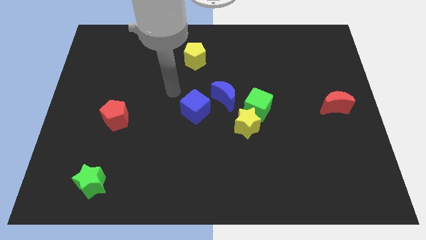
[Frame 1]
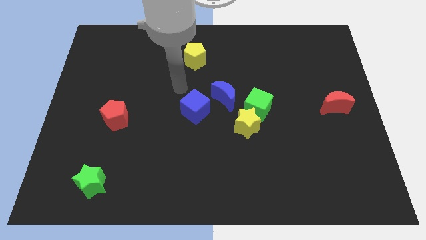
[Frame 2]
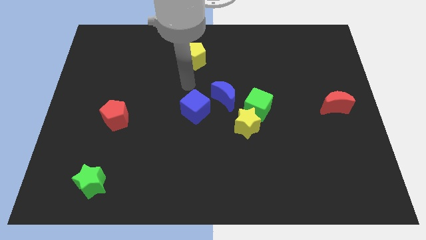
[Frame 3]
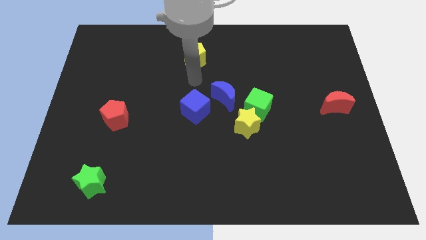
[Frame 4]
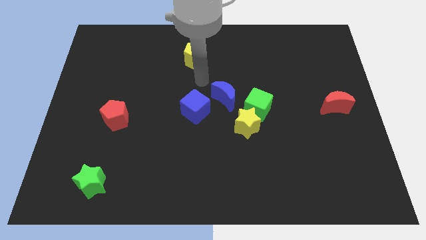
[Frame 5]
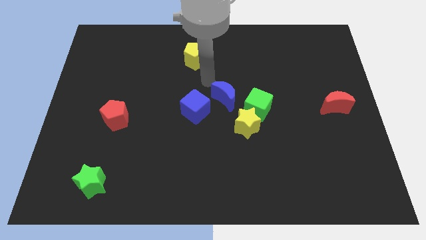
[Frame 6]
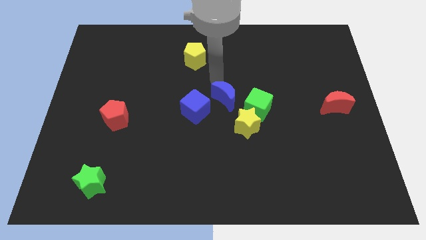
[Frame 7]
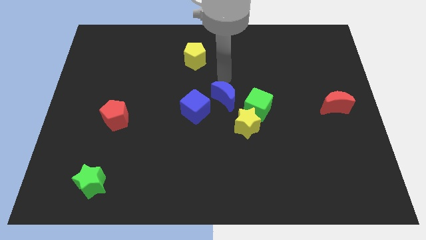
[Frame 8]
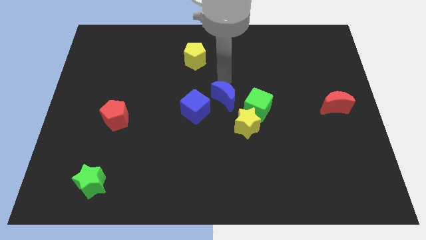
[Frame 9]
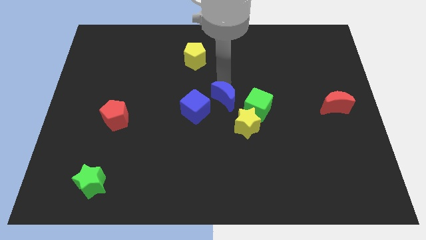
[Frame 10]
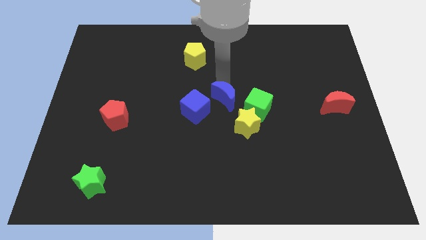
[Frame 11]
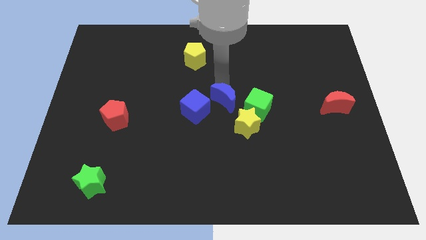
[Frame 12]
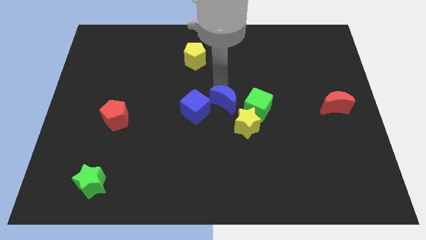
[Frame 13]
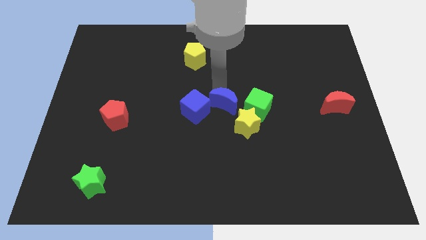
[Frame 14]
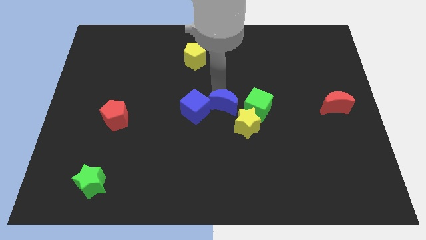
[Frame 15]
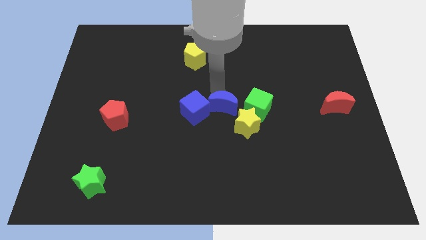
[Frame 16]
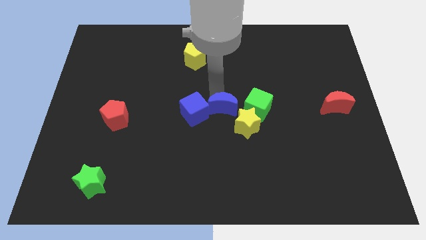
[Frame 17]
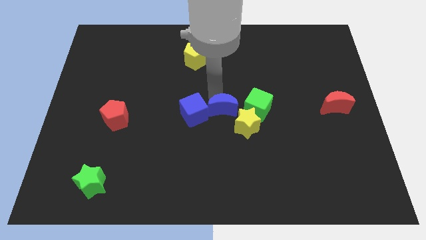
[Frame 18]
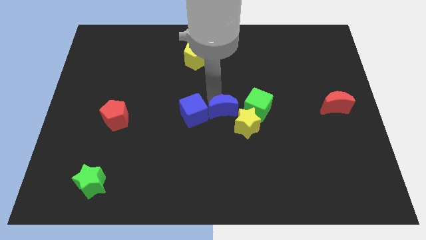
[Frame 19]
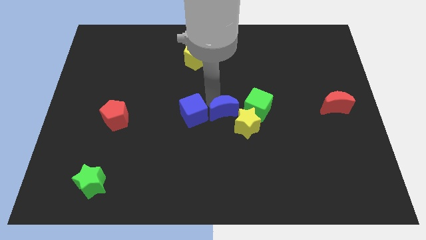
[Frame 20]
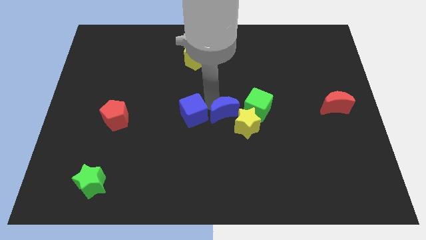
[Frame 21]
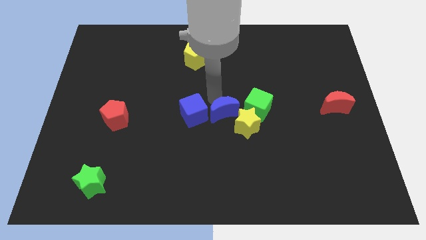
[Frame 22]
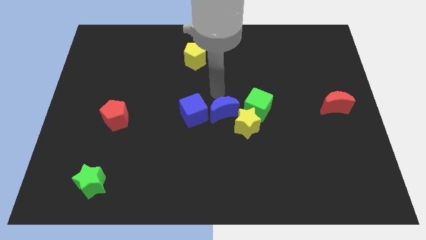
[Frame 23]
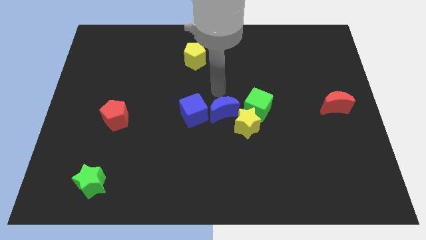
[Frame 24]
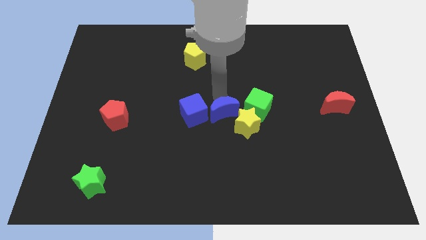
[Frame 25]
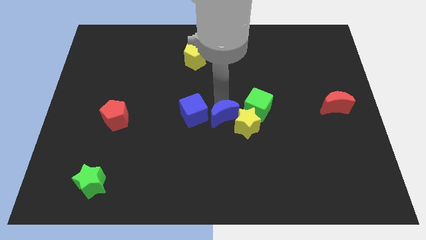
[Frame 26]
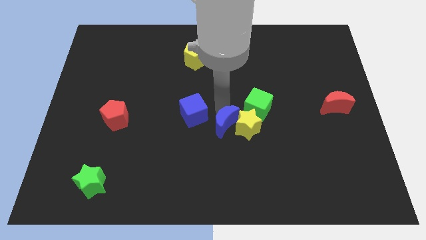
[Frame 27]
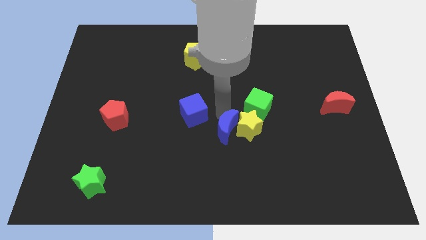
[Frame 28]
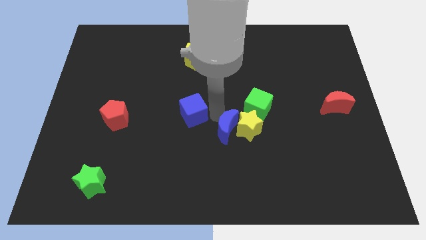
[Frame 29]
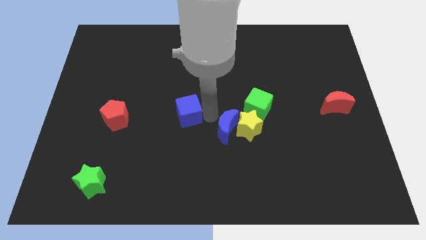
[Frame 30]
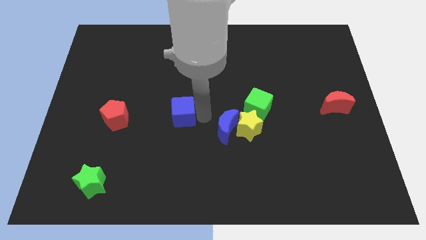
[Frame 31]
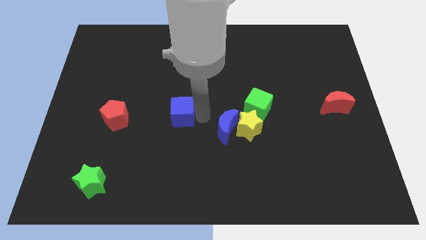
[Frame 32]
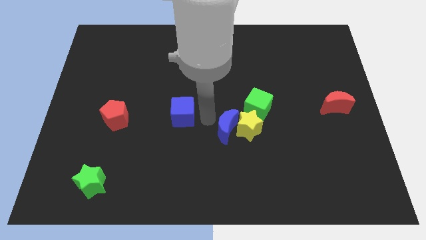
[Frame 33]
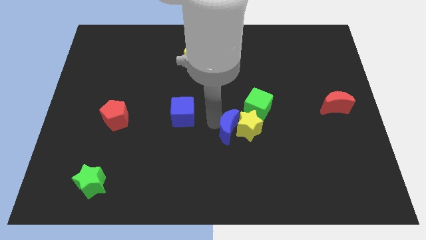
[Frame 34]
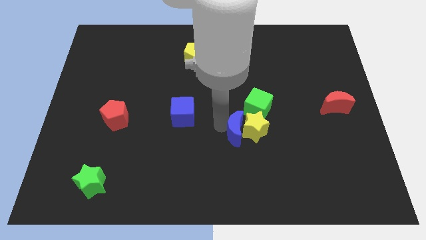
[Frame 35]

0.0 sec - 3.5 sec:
move the blue moon a little down and to the right

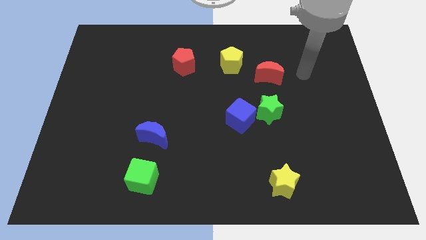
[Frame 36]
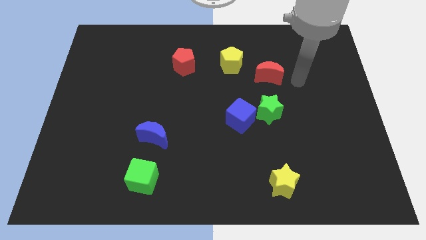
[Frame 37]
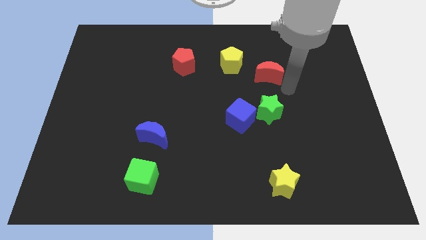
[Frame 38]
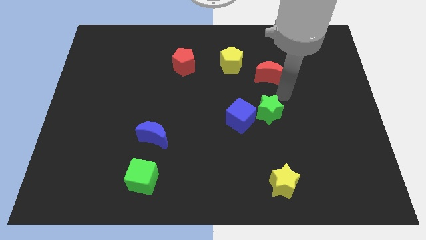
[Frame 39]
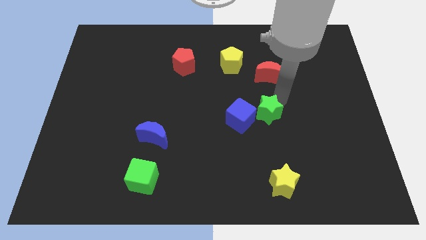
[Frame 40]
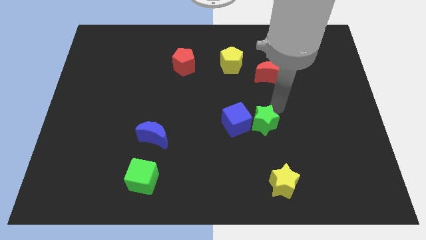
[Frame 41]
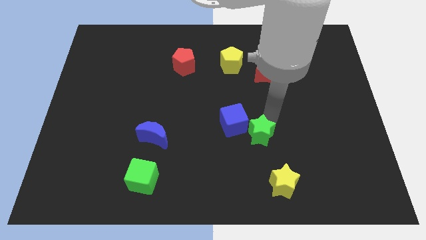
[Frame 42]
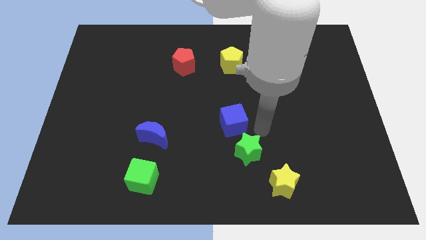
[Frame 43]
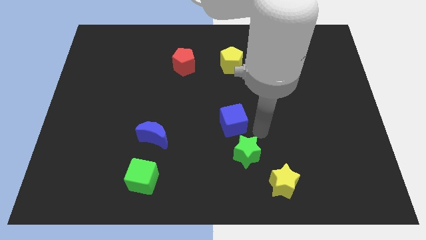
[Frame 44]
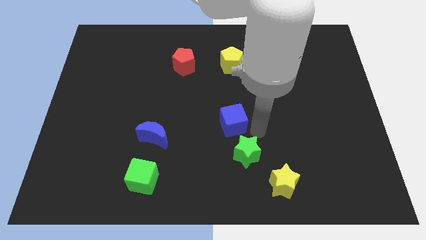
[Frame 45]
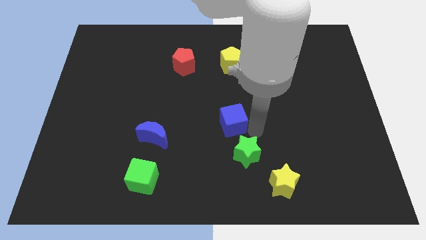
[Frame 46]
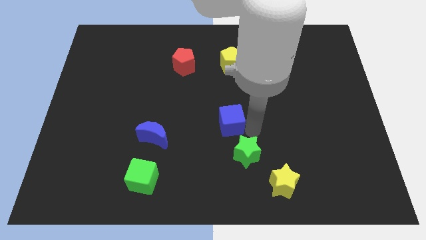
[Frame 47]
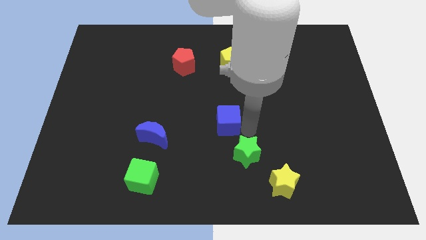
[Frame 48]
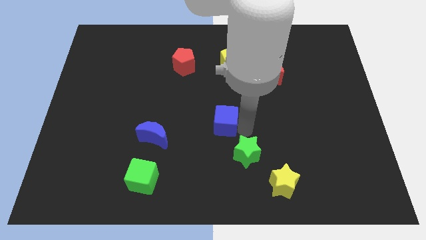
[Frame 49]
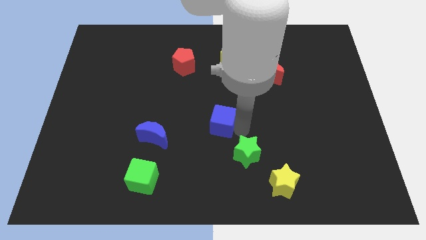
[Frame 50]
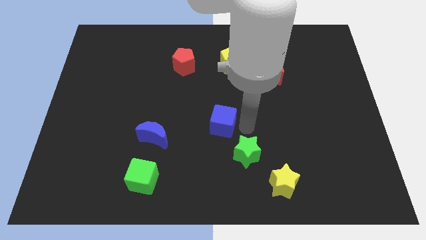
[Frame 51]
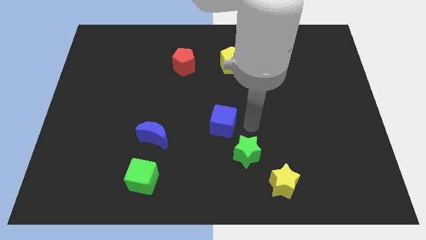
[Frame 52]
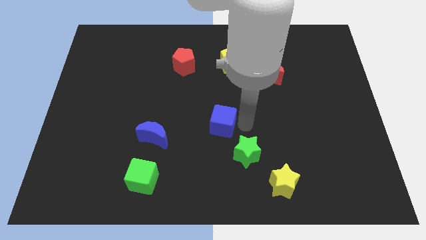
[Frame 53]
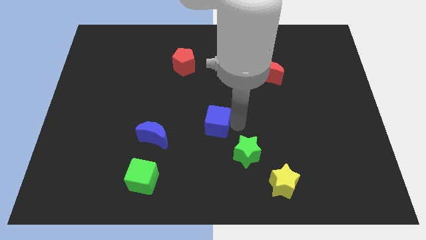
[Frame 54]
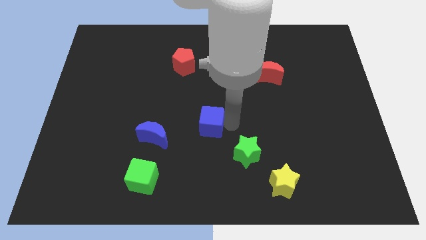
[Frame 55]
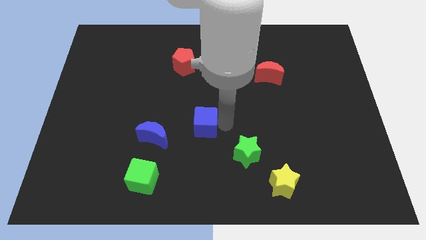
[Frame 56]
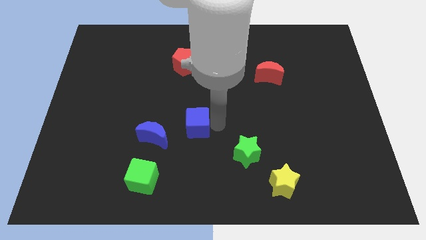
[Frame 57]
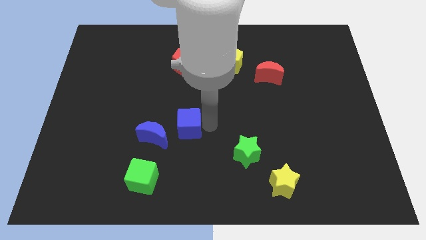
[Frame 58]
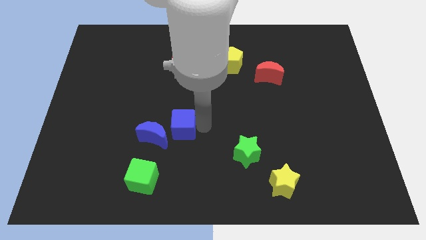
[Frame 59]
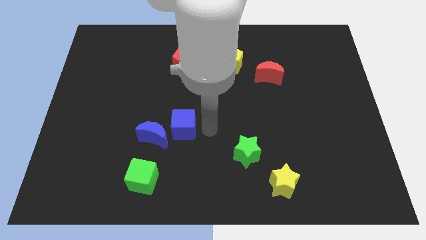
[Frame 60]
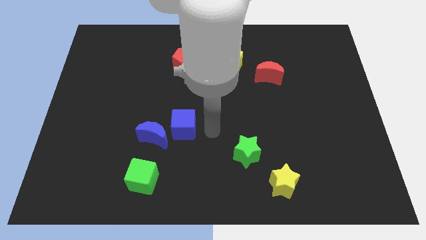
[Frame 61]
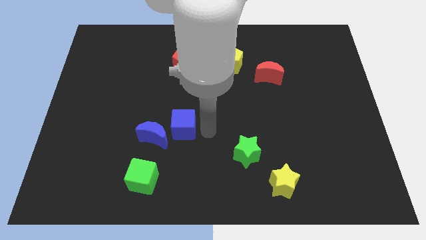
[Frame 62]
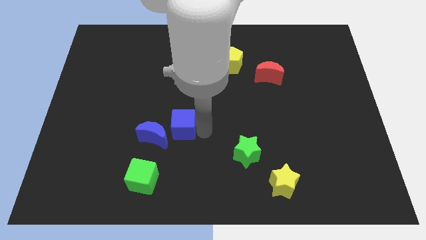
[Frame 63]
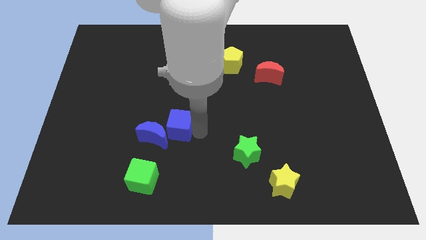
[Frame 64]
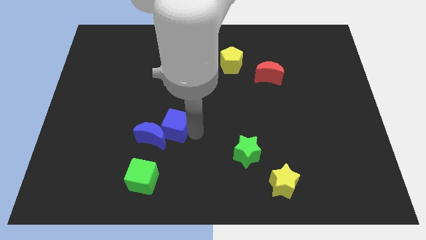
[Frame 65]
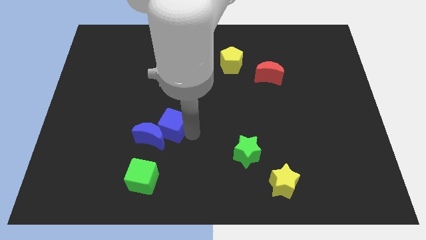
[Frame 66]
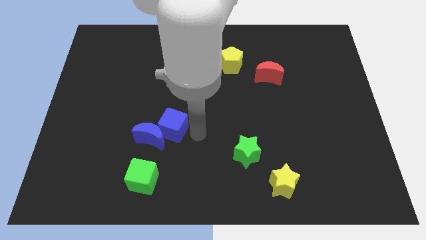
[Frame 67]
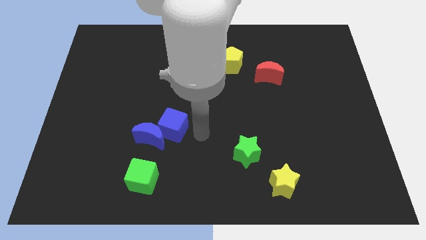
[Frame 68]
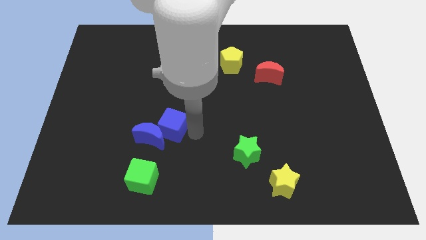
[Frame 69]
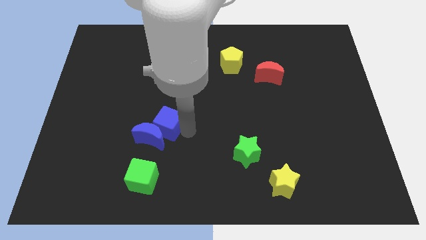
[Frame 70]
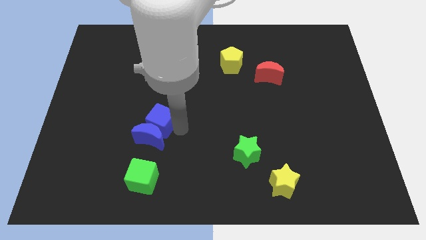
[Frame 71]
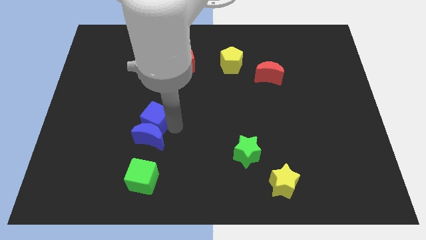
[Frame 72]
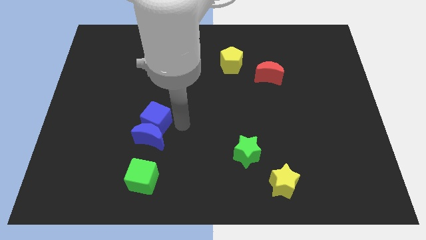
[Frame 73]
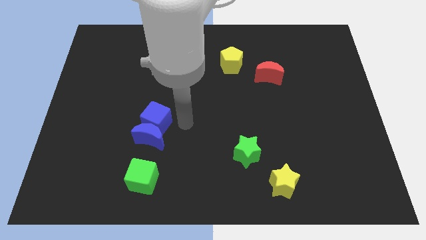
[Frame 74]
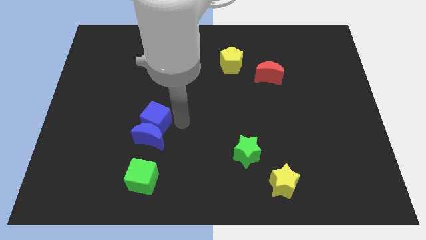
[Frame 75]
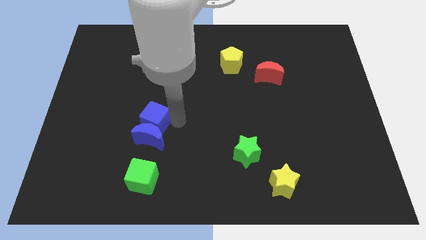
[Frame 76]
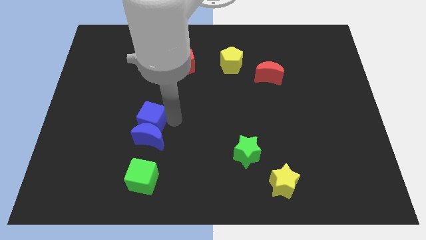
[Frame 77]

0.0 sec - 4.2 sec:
move the blue cube to the left
